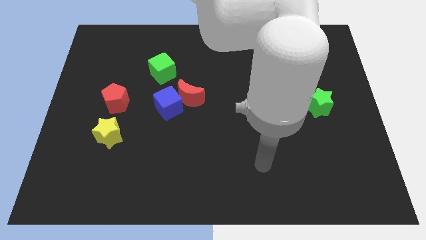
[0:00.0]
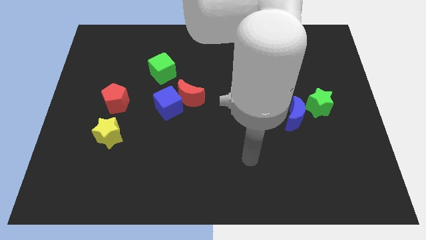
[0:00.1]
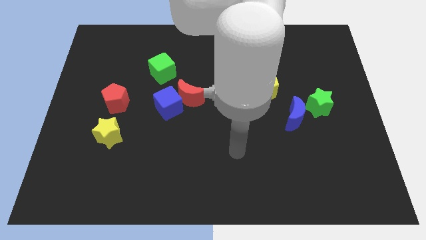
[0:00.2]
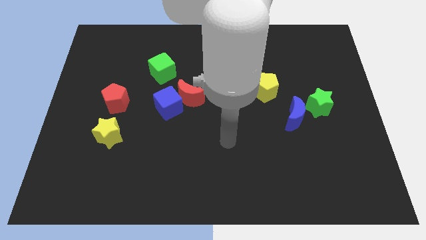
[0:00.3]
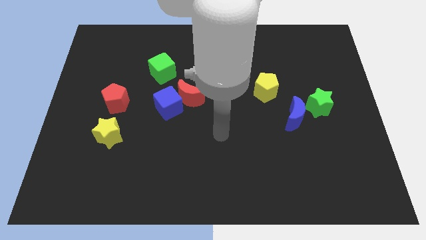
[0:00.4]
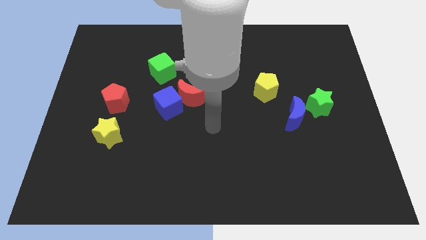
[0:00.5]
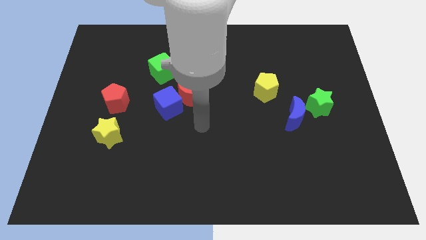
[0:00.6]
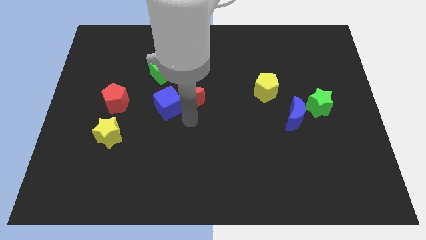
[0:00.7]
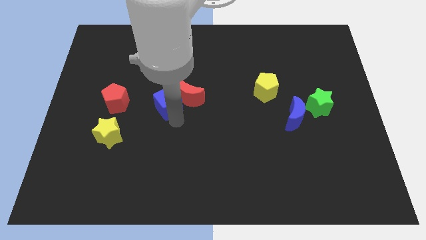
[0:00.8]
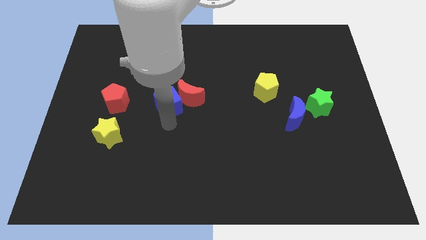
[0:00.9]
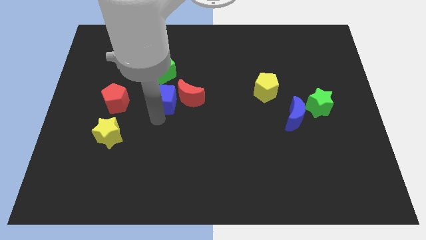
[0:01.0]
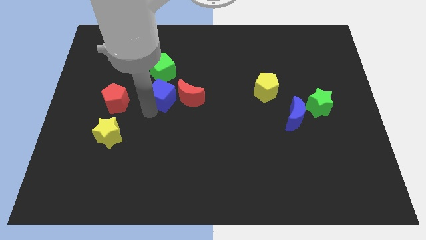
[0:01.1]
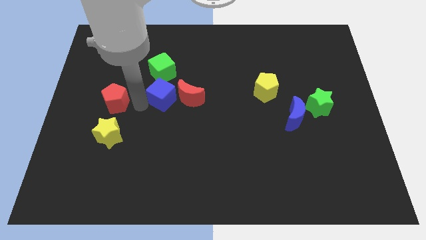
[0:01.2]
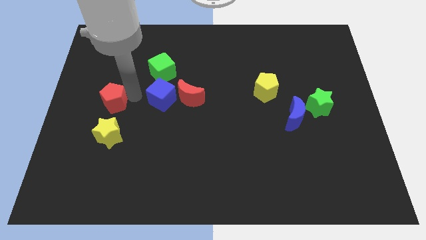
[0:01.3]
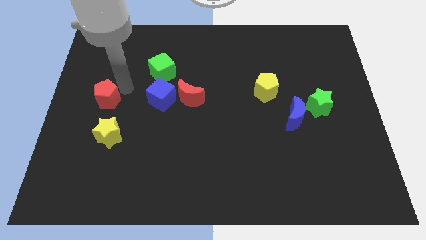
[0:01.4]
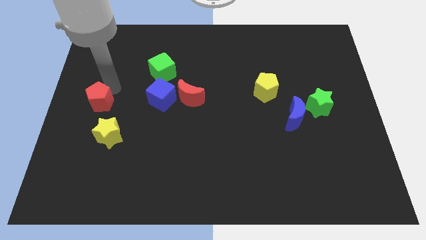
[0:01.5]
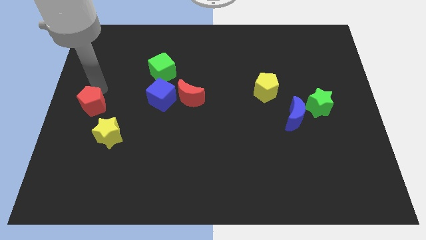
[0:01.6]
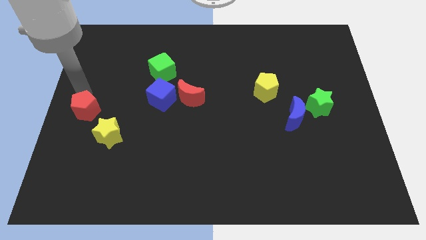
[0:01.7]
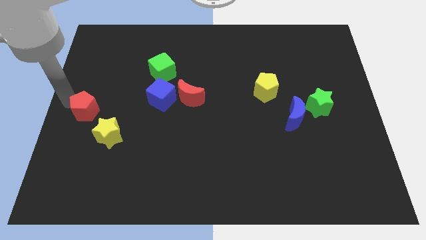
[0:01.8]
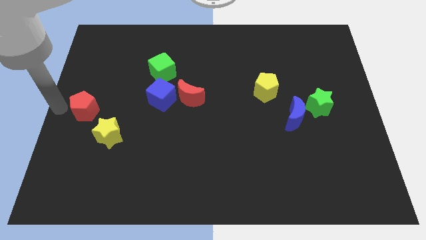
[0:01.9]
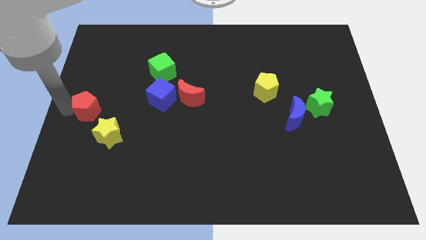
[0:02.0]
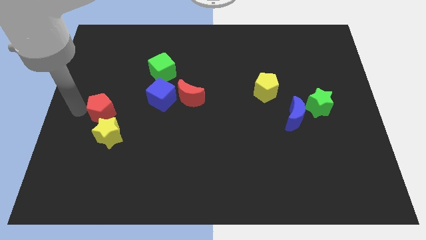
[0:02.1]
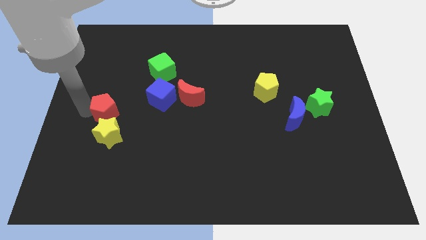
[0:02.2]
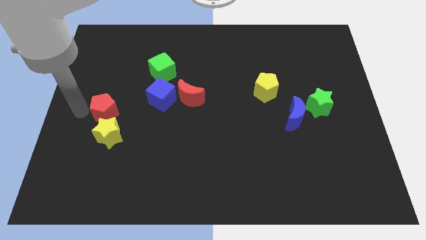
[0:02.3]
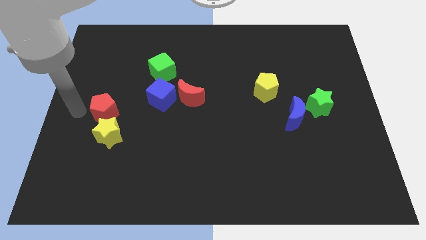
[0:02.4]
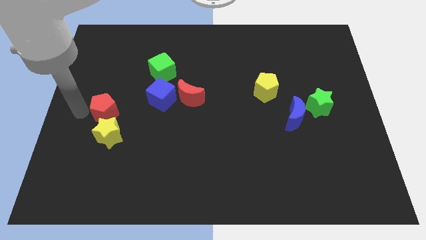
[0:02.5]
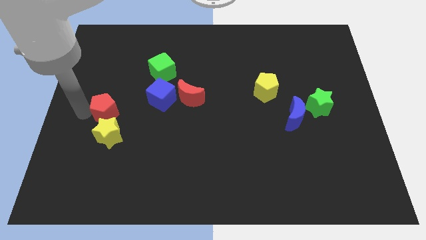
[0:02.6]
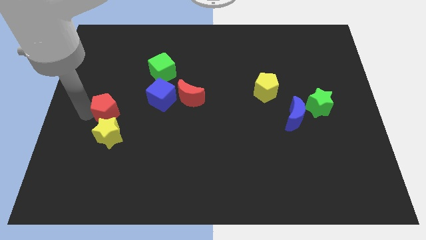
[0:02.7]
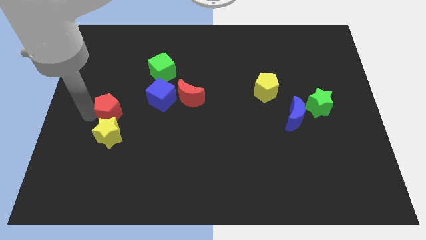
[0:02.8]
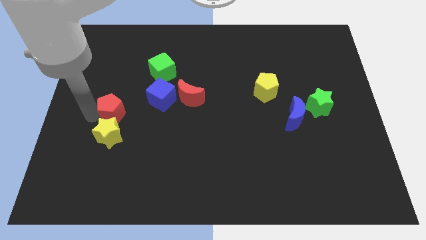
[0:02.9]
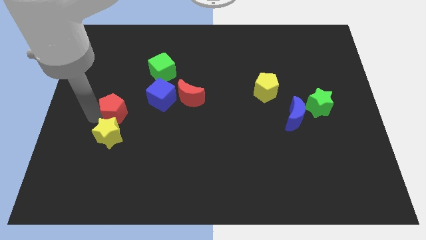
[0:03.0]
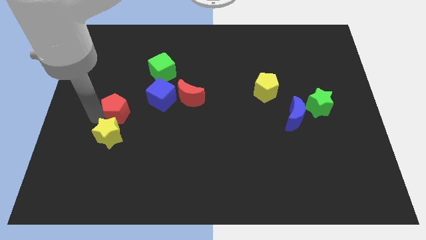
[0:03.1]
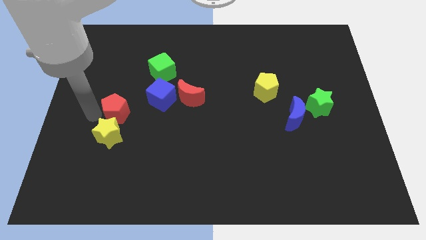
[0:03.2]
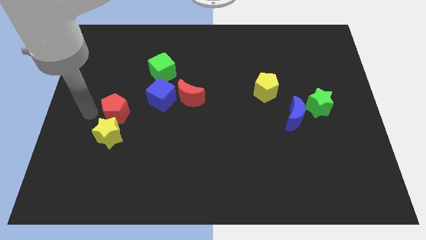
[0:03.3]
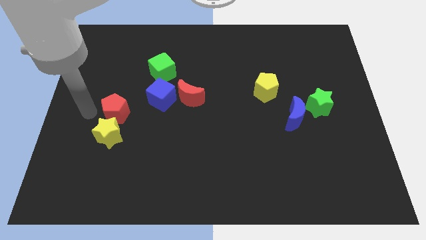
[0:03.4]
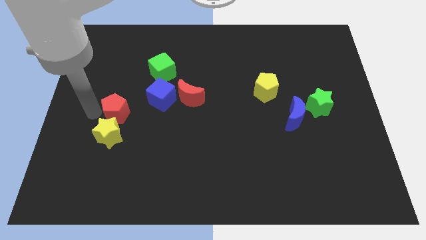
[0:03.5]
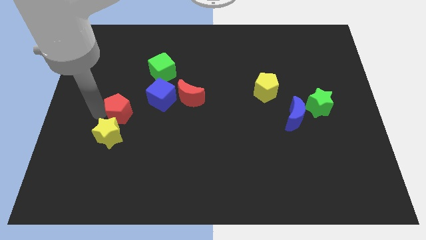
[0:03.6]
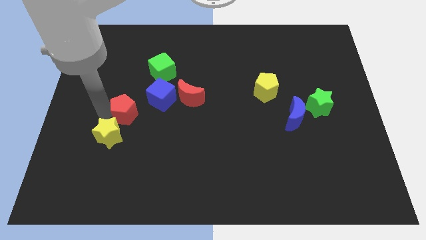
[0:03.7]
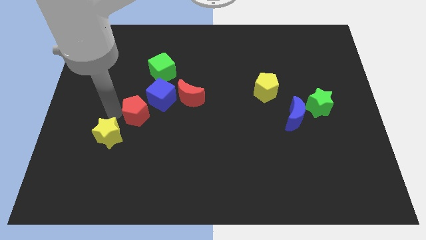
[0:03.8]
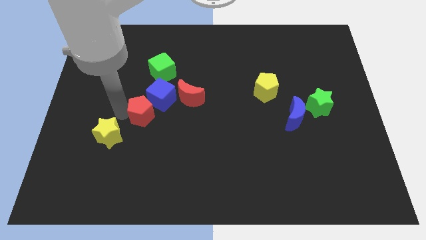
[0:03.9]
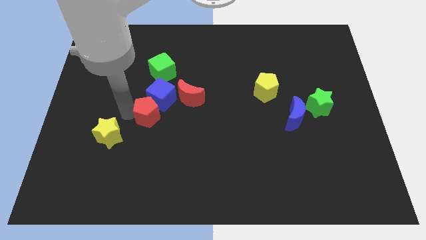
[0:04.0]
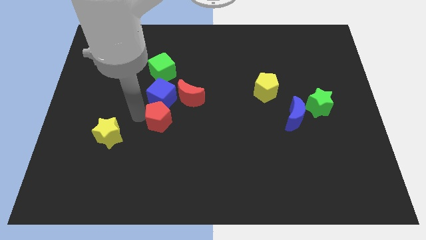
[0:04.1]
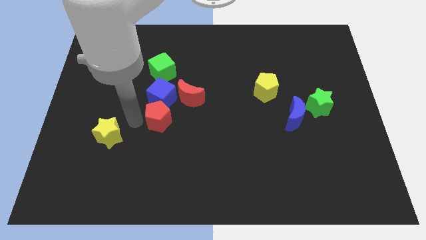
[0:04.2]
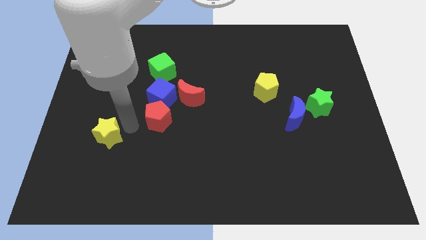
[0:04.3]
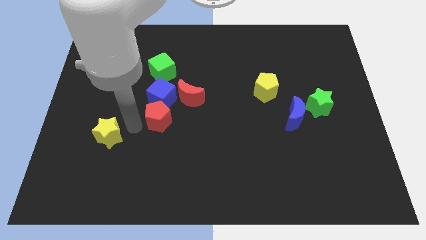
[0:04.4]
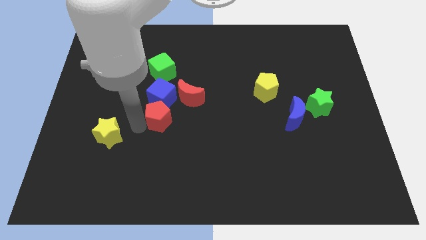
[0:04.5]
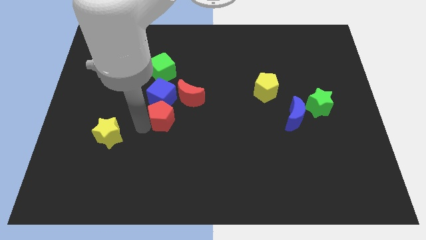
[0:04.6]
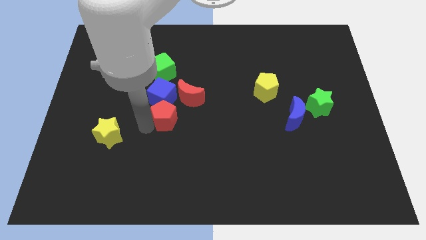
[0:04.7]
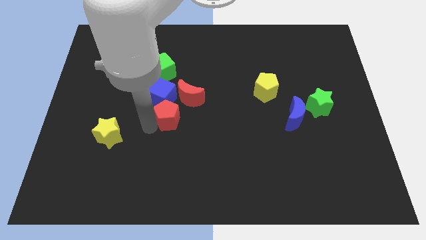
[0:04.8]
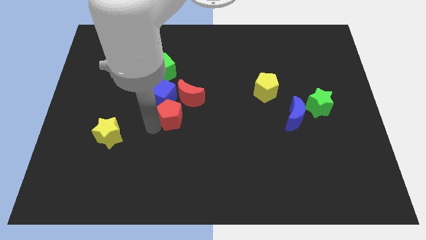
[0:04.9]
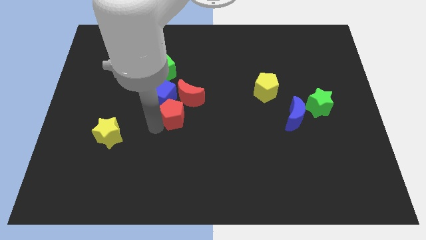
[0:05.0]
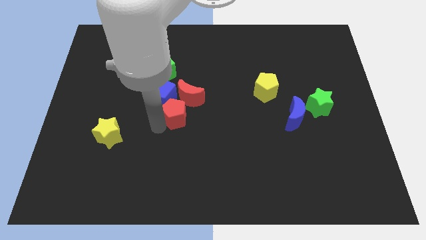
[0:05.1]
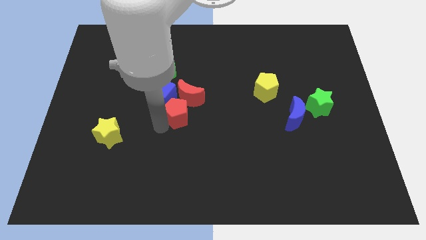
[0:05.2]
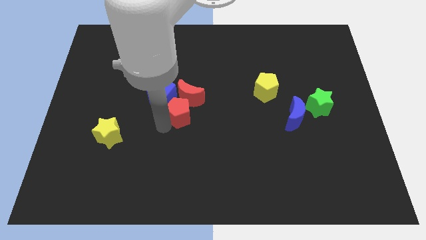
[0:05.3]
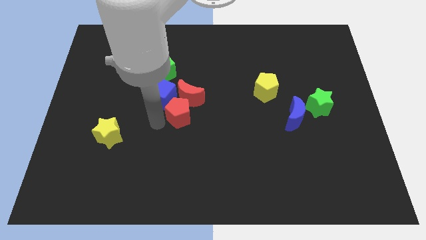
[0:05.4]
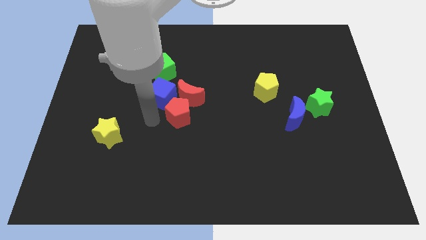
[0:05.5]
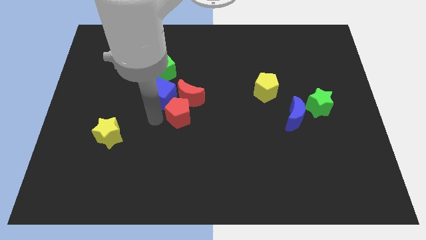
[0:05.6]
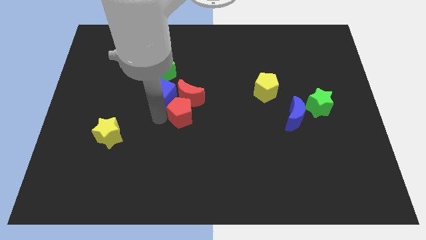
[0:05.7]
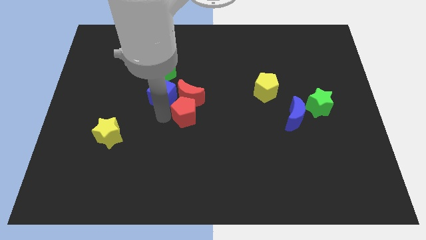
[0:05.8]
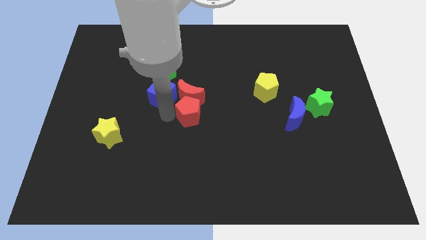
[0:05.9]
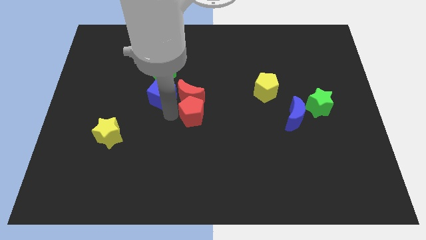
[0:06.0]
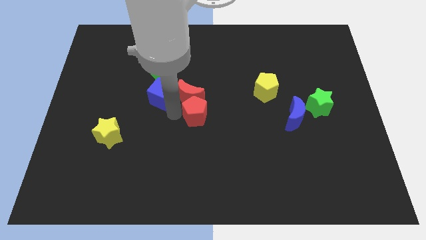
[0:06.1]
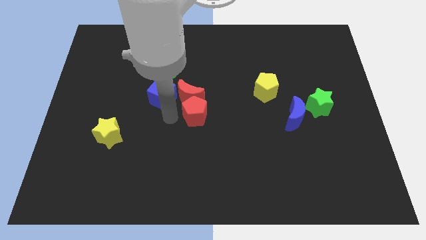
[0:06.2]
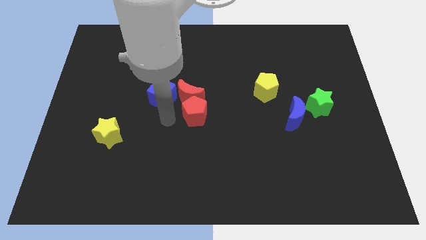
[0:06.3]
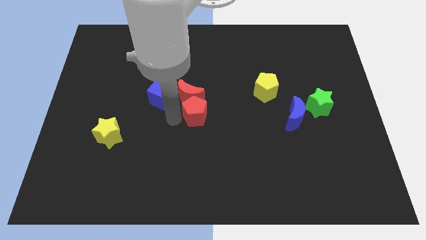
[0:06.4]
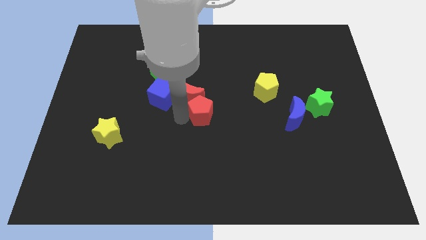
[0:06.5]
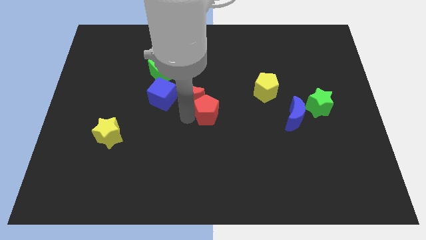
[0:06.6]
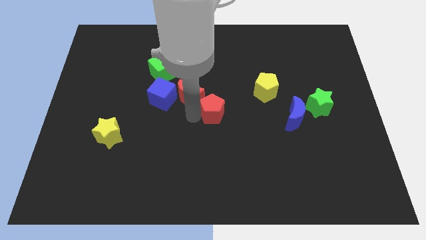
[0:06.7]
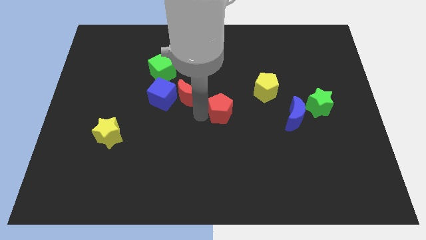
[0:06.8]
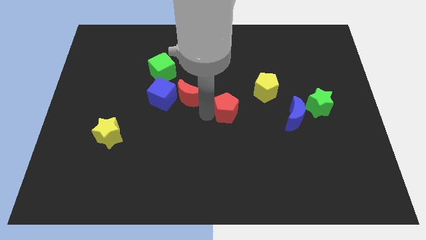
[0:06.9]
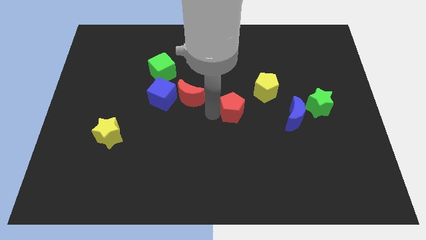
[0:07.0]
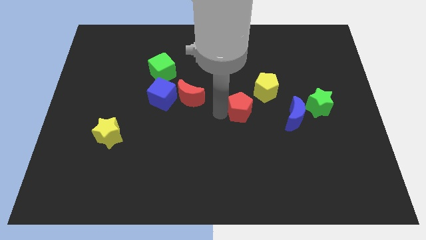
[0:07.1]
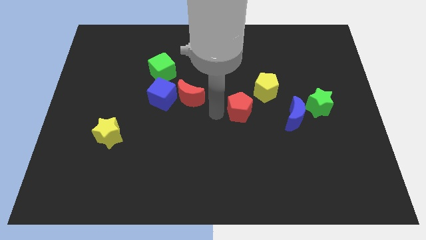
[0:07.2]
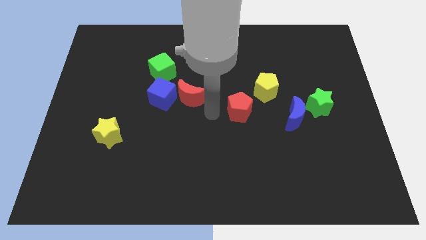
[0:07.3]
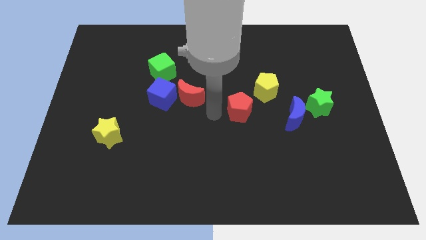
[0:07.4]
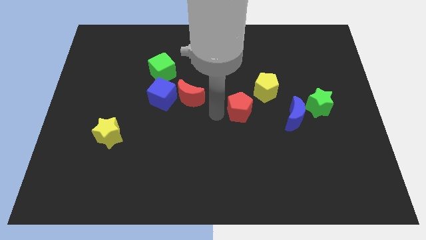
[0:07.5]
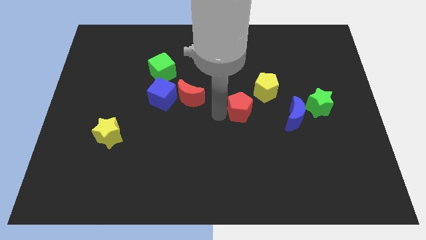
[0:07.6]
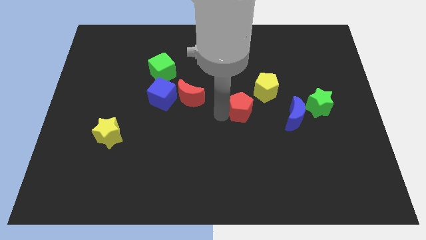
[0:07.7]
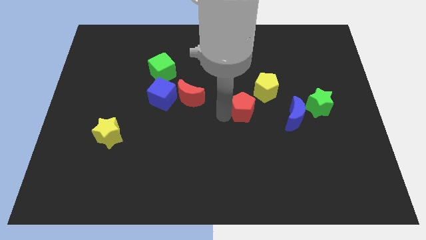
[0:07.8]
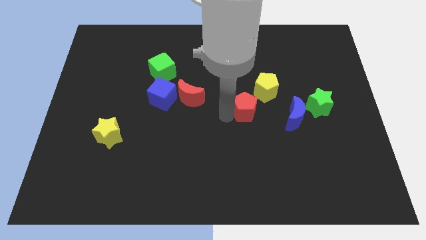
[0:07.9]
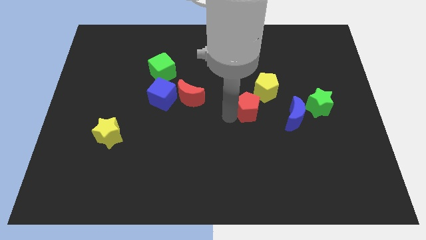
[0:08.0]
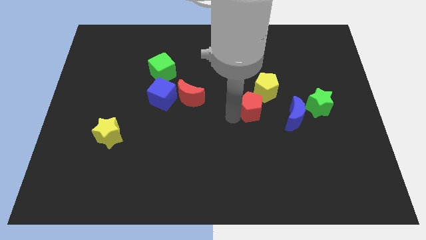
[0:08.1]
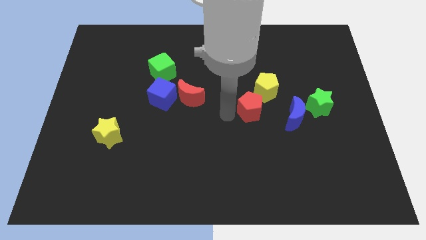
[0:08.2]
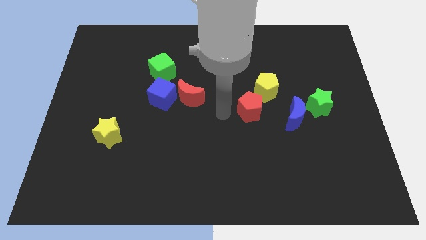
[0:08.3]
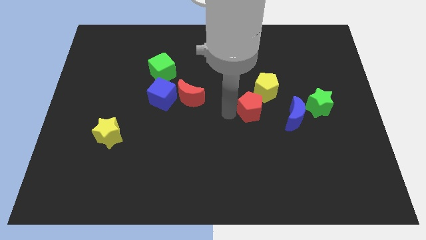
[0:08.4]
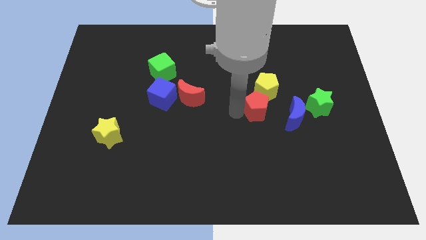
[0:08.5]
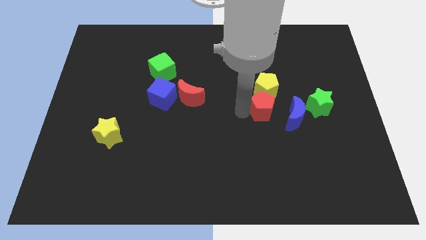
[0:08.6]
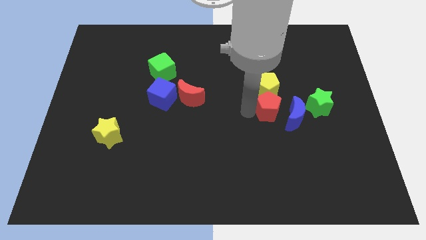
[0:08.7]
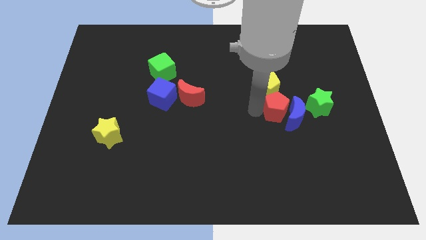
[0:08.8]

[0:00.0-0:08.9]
push the red pentagon to the blue moon
